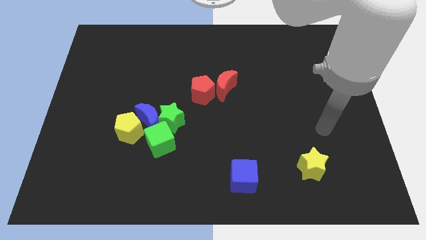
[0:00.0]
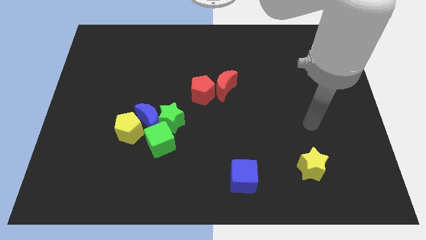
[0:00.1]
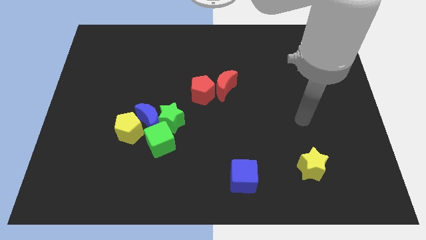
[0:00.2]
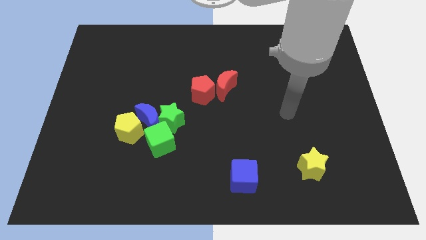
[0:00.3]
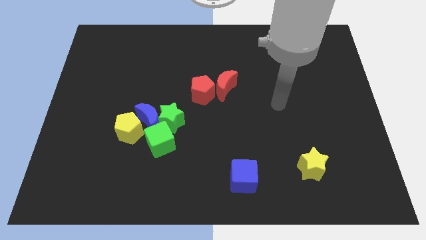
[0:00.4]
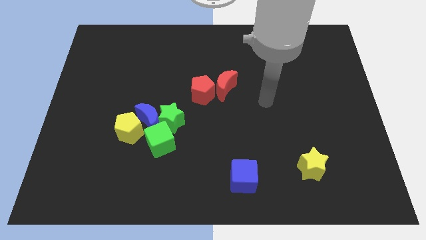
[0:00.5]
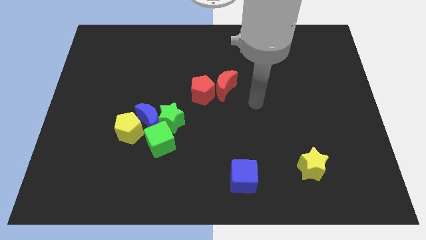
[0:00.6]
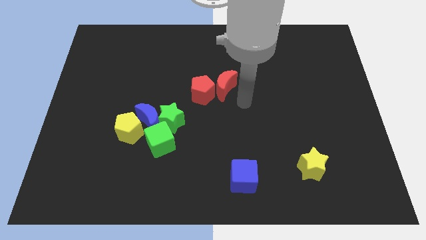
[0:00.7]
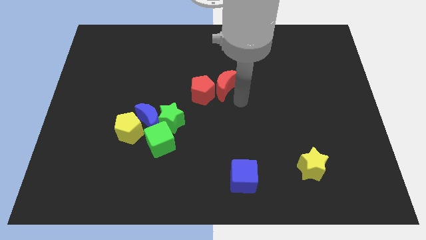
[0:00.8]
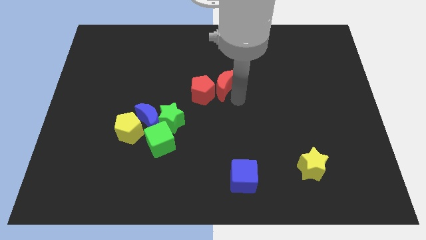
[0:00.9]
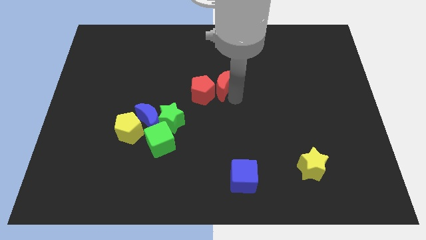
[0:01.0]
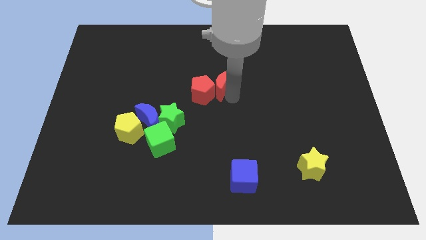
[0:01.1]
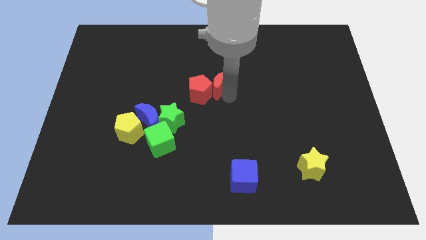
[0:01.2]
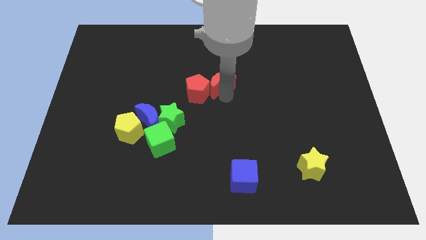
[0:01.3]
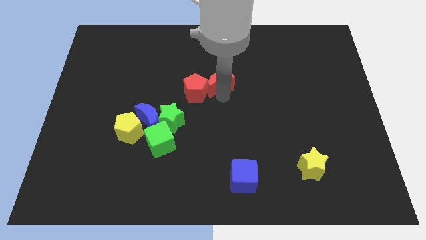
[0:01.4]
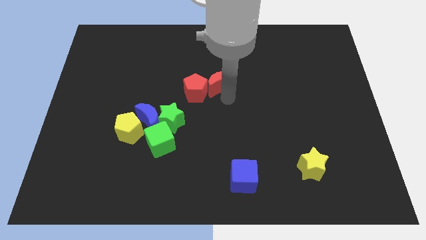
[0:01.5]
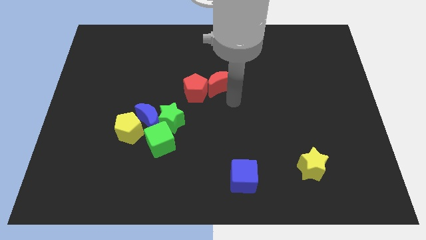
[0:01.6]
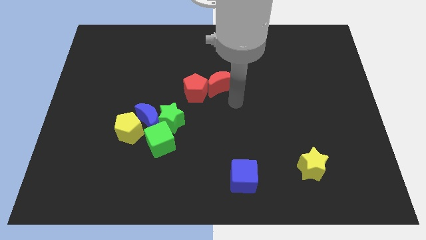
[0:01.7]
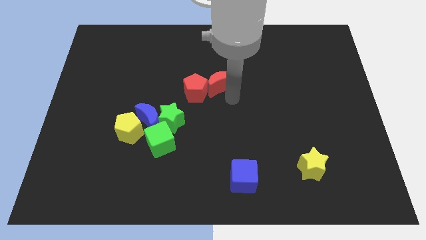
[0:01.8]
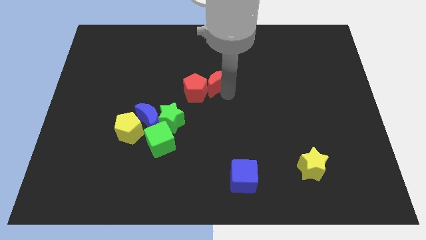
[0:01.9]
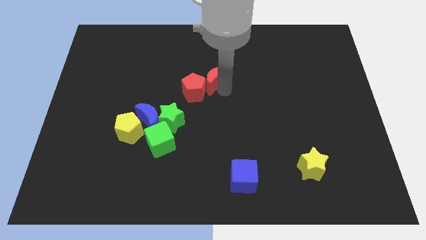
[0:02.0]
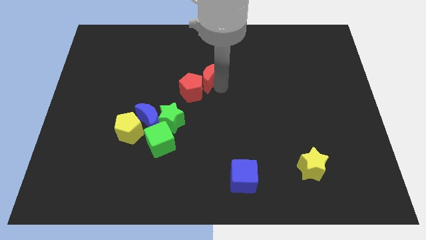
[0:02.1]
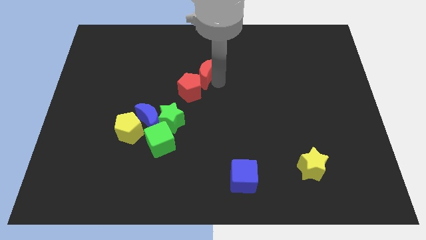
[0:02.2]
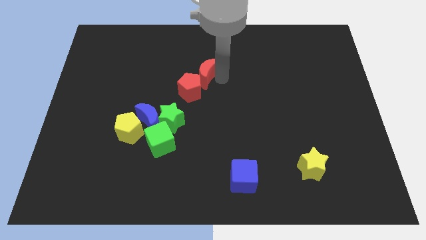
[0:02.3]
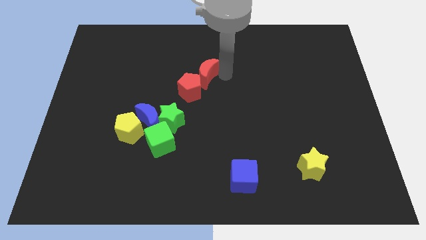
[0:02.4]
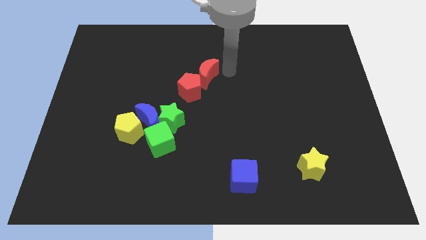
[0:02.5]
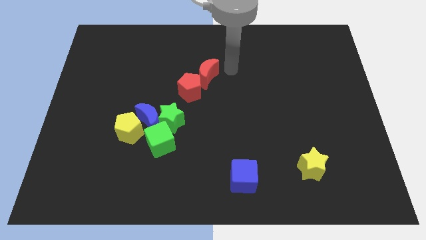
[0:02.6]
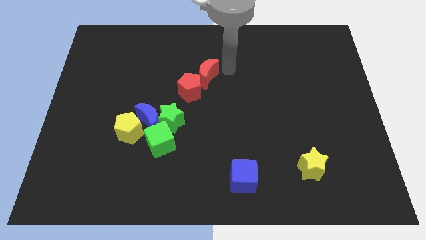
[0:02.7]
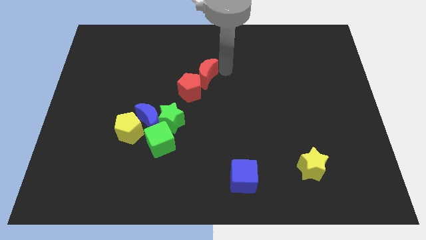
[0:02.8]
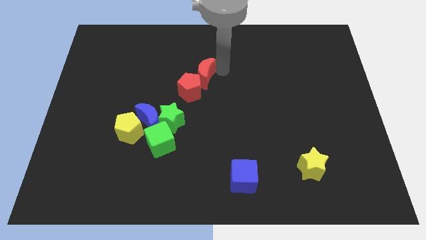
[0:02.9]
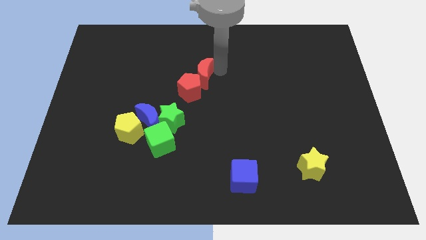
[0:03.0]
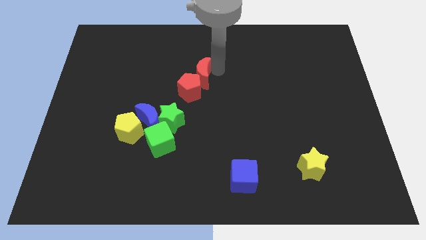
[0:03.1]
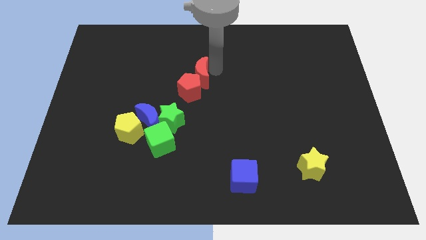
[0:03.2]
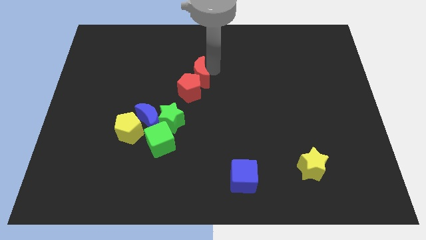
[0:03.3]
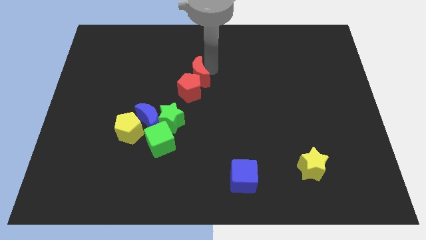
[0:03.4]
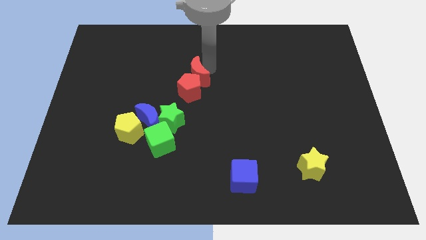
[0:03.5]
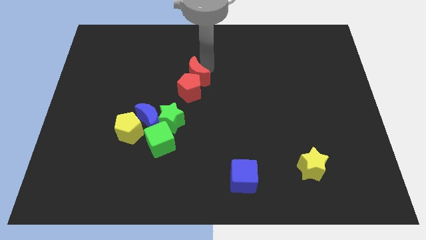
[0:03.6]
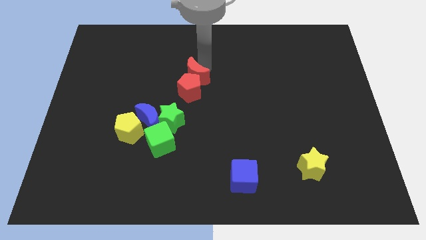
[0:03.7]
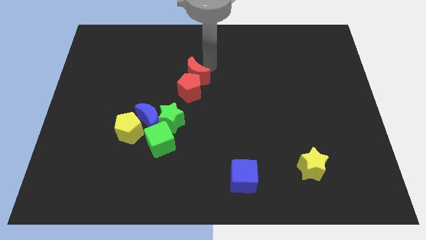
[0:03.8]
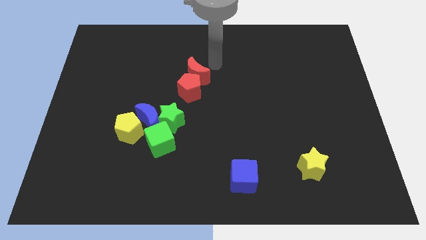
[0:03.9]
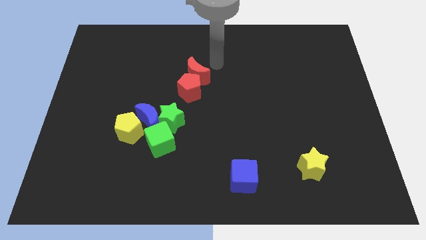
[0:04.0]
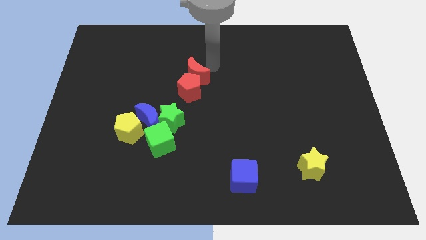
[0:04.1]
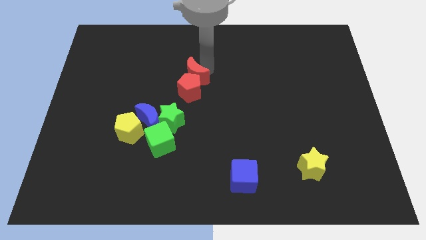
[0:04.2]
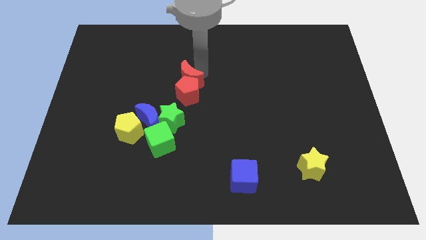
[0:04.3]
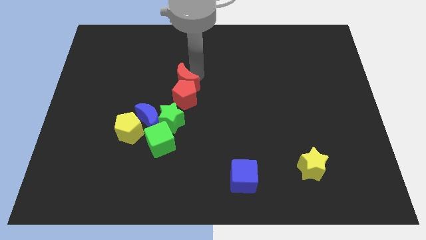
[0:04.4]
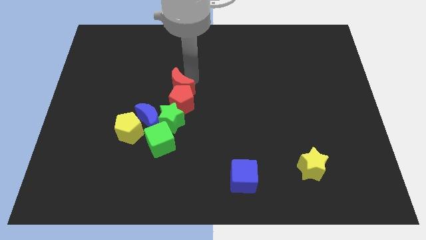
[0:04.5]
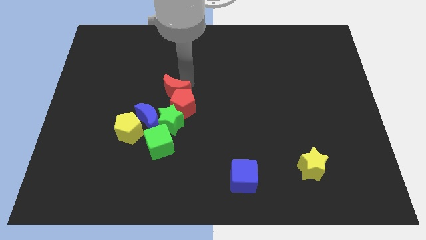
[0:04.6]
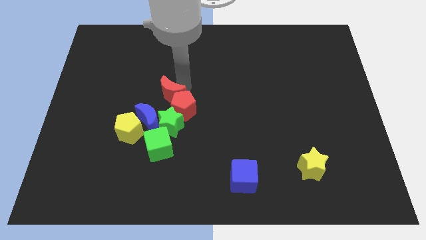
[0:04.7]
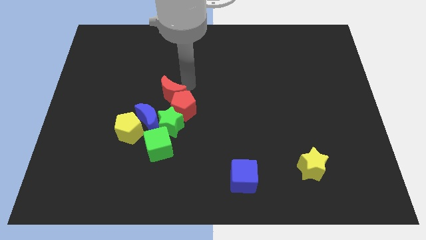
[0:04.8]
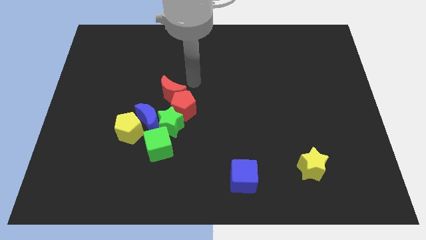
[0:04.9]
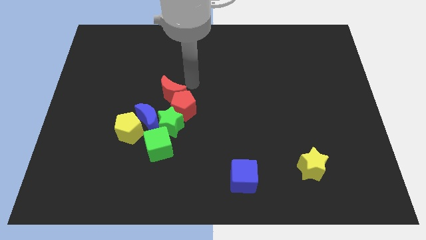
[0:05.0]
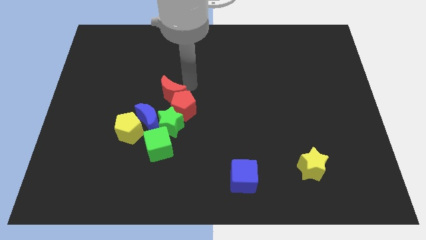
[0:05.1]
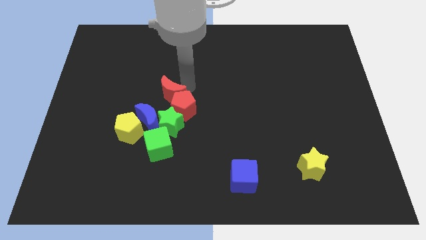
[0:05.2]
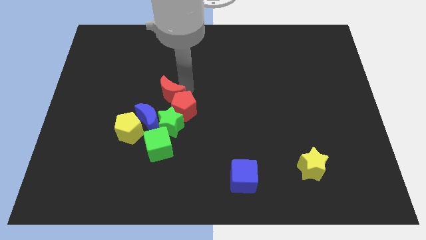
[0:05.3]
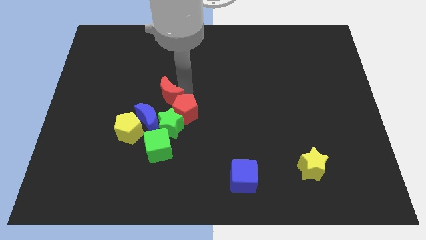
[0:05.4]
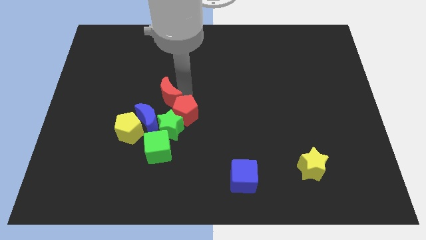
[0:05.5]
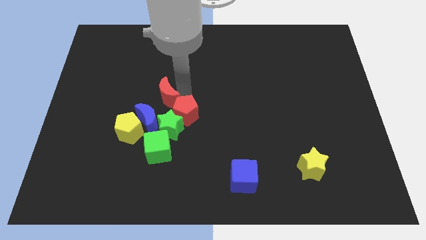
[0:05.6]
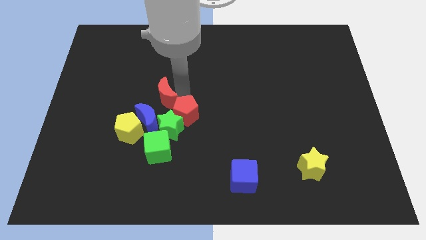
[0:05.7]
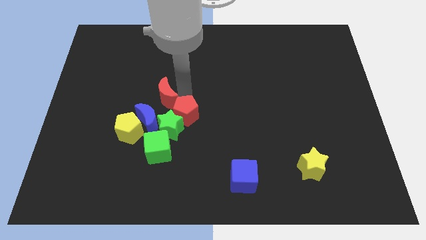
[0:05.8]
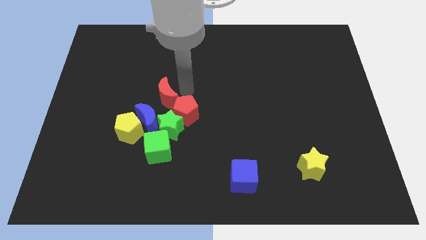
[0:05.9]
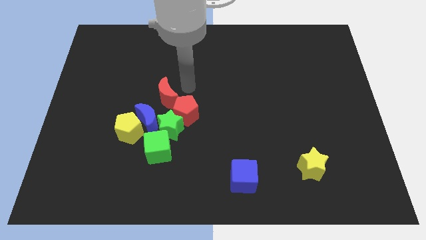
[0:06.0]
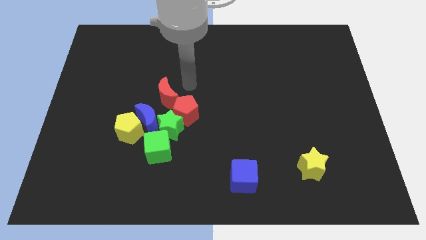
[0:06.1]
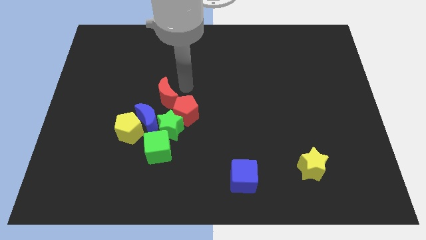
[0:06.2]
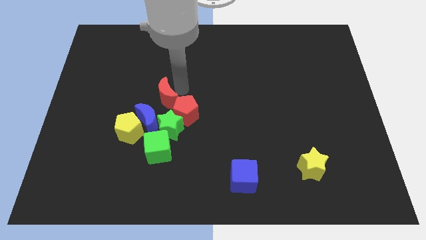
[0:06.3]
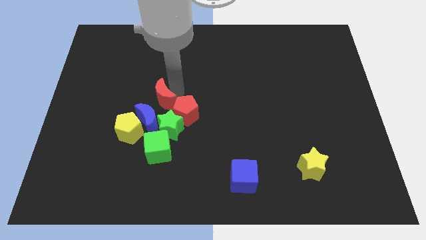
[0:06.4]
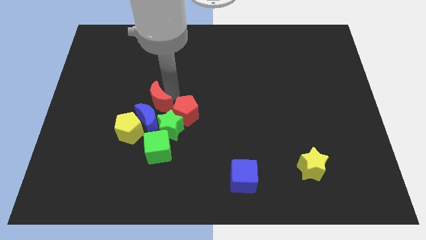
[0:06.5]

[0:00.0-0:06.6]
put the red moon towards the blue moon

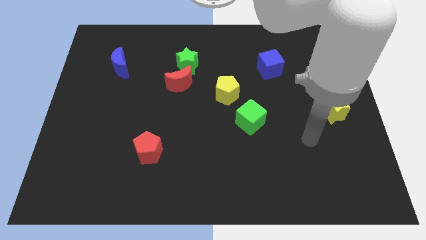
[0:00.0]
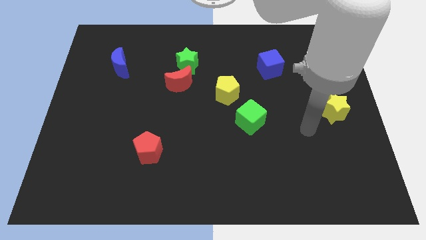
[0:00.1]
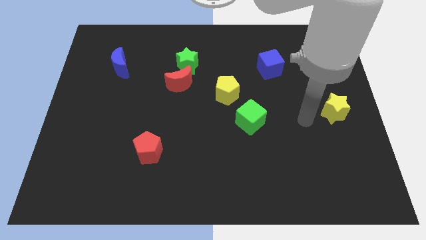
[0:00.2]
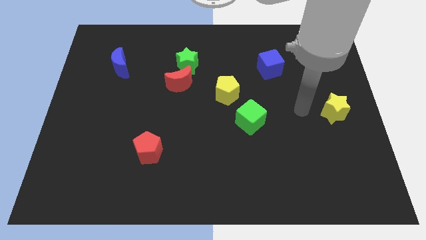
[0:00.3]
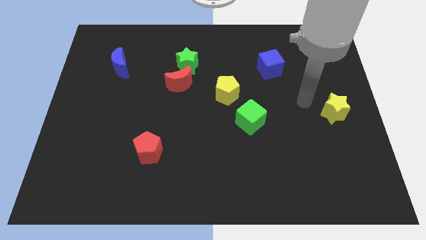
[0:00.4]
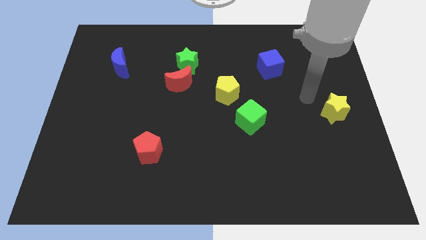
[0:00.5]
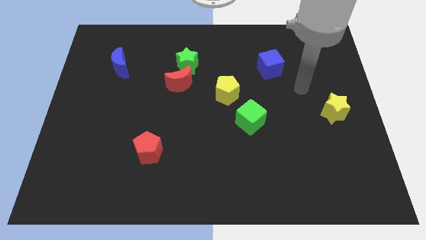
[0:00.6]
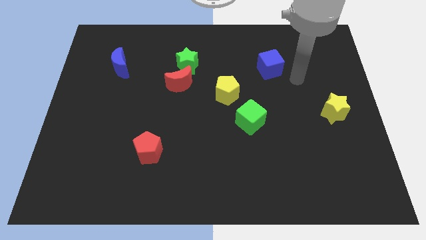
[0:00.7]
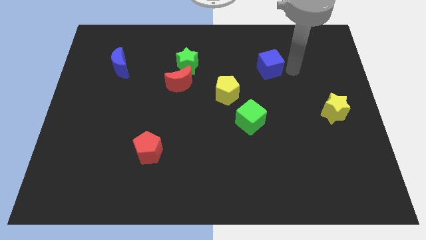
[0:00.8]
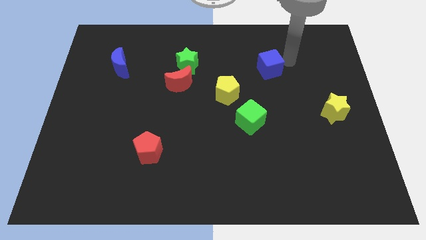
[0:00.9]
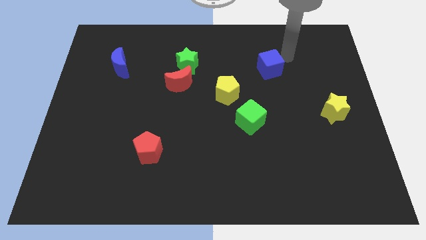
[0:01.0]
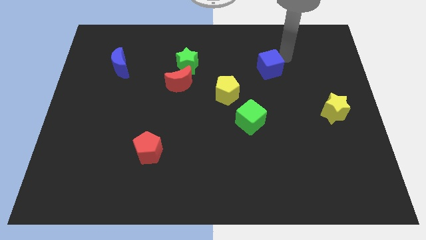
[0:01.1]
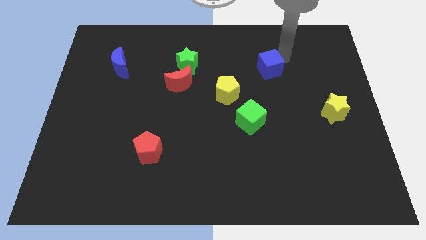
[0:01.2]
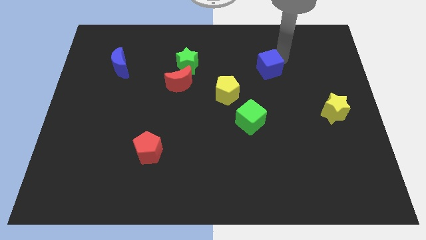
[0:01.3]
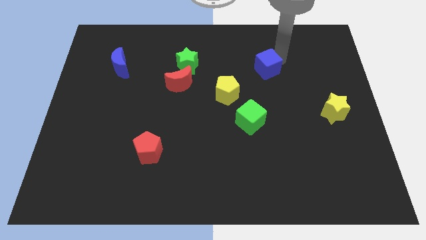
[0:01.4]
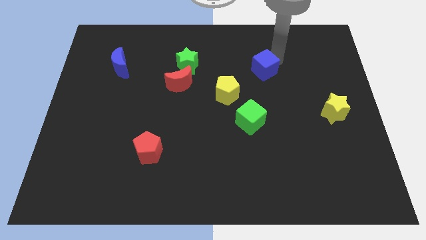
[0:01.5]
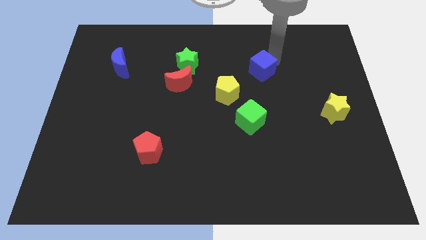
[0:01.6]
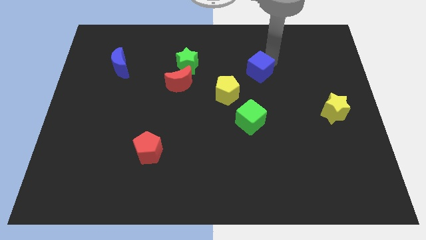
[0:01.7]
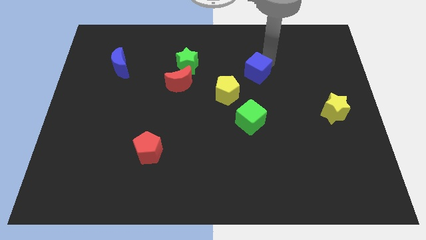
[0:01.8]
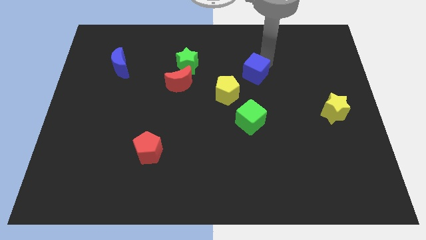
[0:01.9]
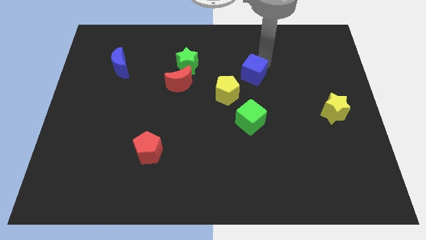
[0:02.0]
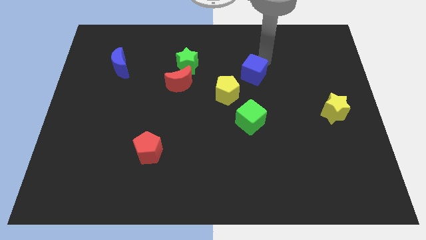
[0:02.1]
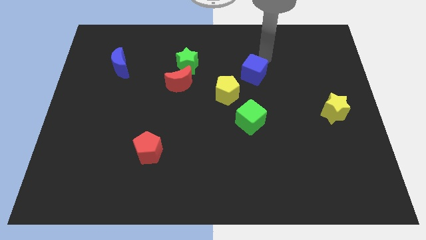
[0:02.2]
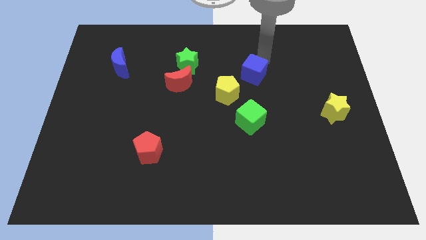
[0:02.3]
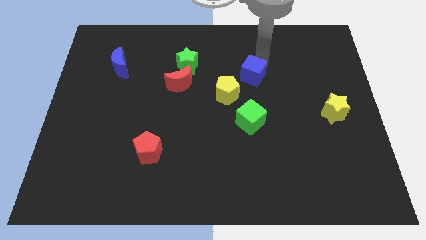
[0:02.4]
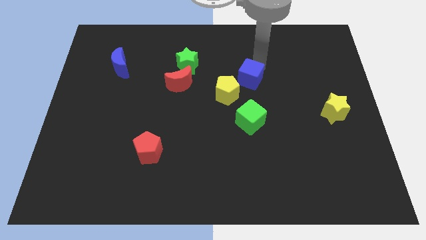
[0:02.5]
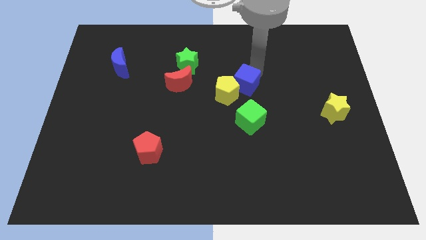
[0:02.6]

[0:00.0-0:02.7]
put the blue cube next to the yellow pentagon
